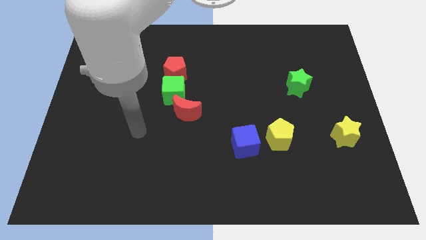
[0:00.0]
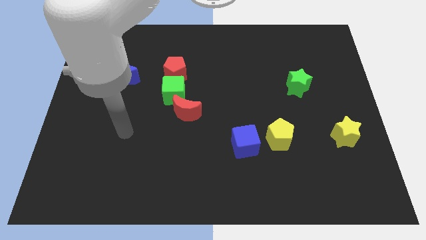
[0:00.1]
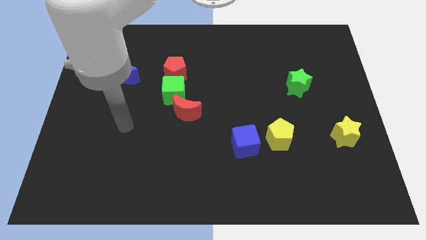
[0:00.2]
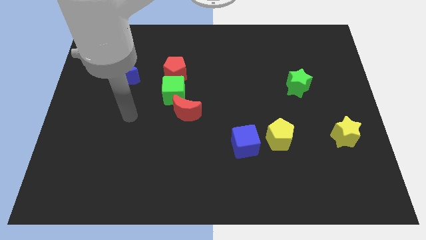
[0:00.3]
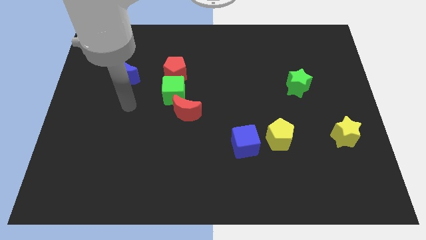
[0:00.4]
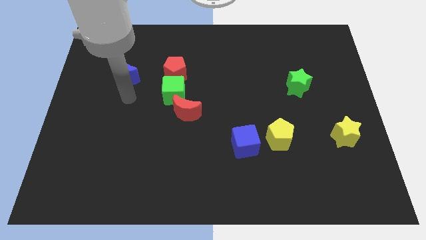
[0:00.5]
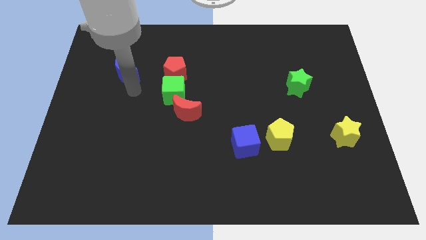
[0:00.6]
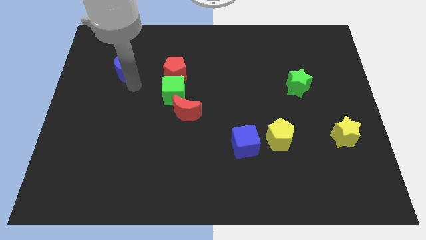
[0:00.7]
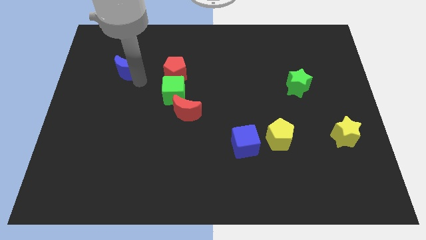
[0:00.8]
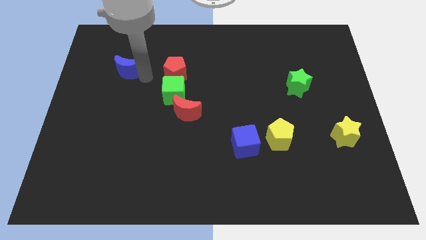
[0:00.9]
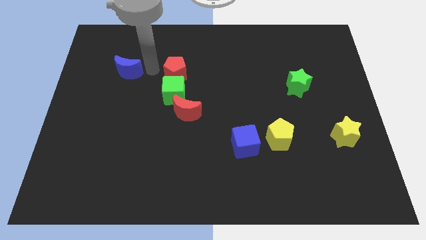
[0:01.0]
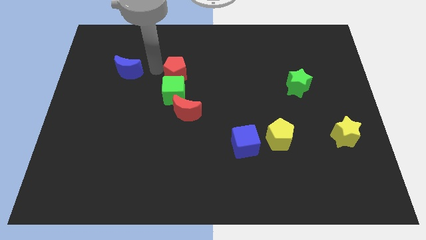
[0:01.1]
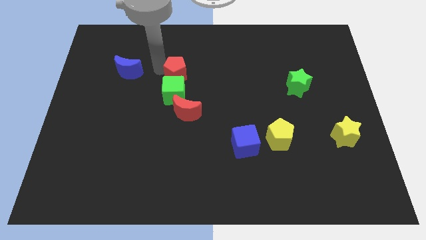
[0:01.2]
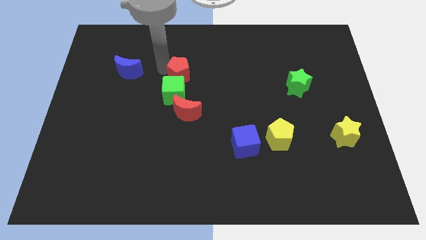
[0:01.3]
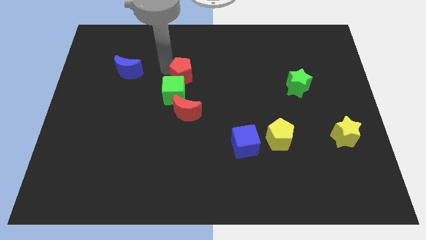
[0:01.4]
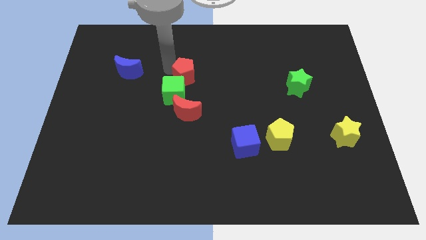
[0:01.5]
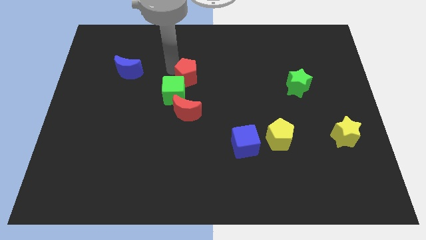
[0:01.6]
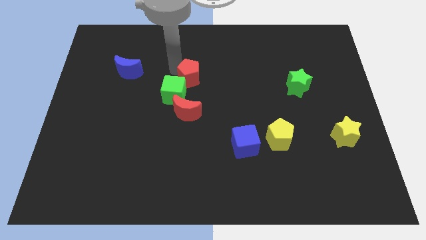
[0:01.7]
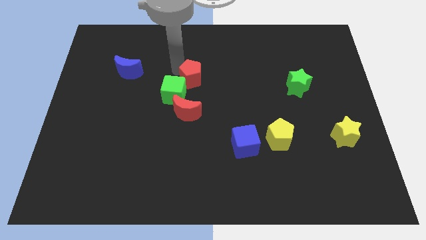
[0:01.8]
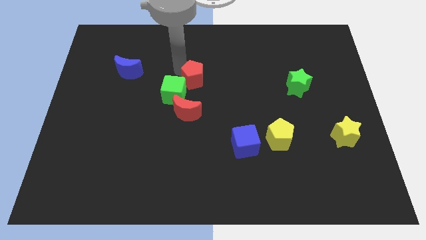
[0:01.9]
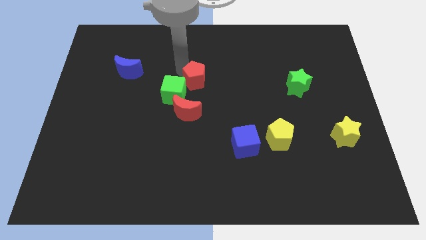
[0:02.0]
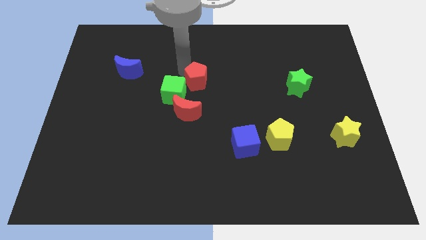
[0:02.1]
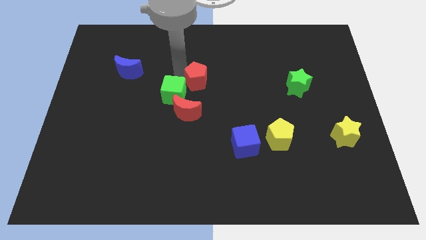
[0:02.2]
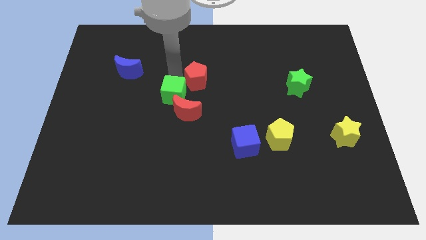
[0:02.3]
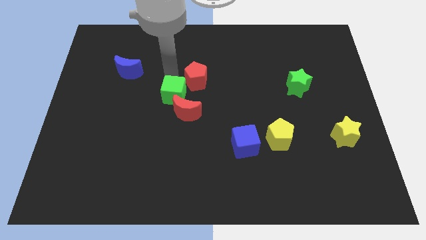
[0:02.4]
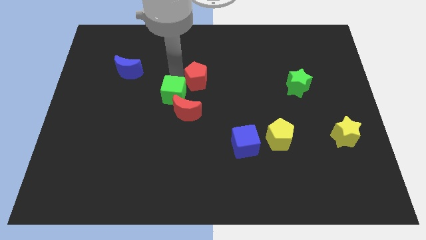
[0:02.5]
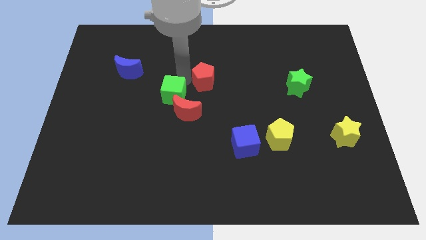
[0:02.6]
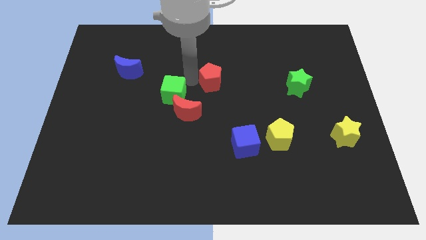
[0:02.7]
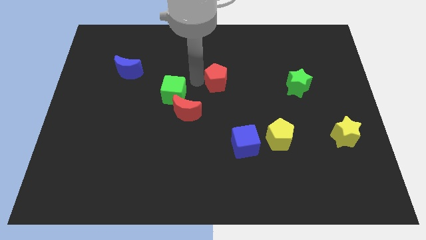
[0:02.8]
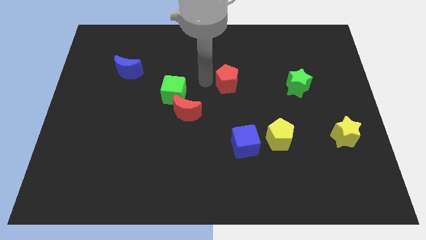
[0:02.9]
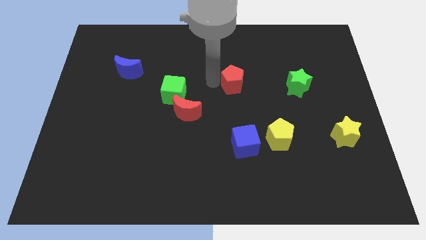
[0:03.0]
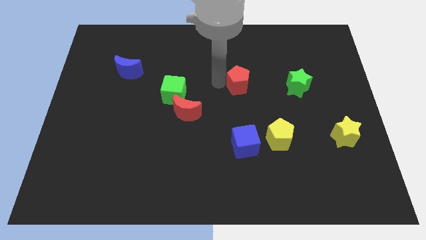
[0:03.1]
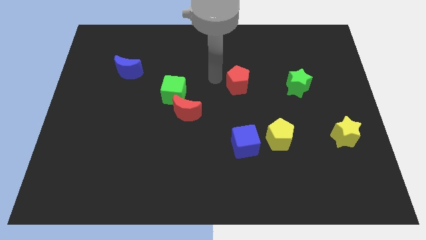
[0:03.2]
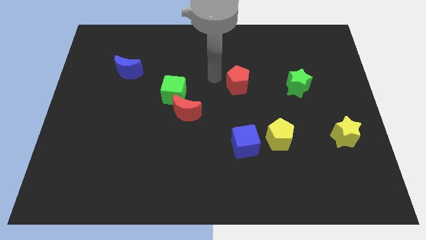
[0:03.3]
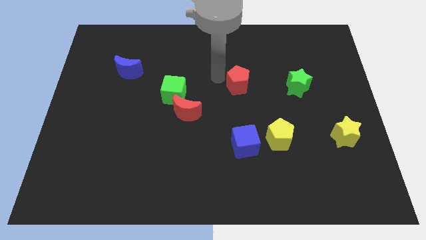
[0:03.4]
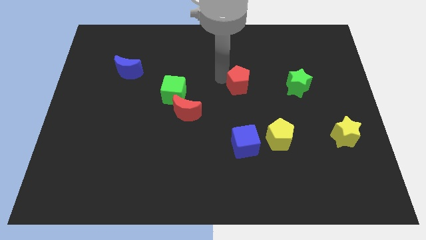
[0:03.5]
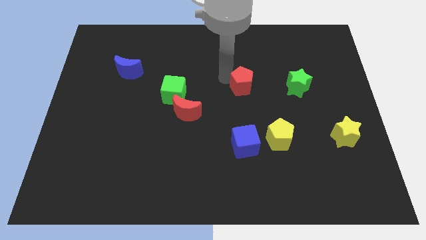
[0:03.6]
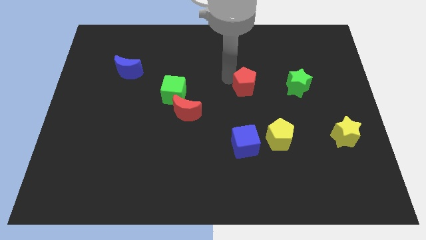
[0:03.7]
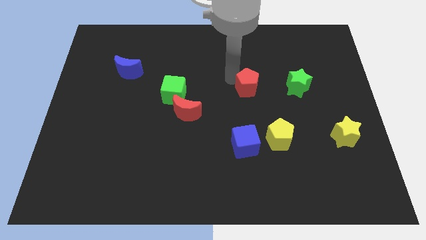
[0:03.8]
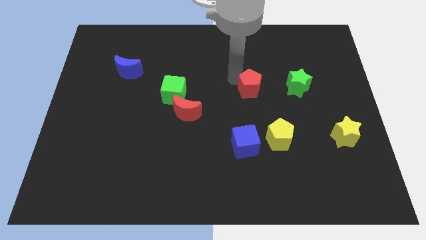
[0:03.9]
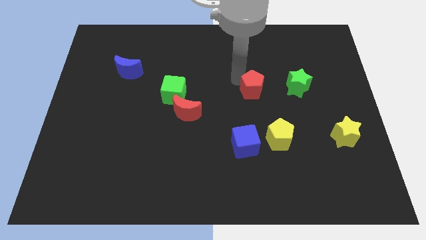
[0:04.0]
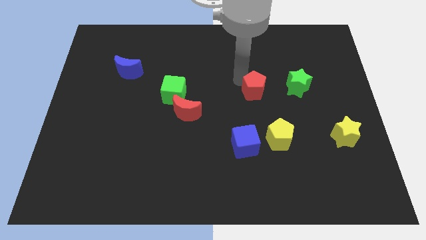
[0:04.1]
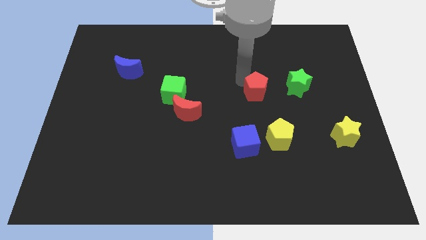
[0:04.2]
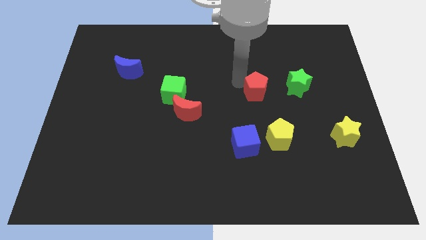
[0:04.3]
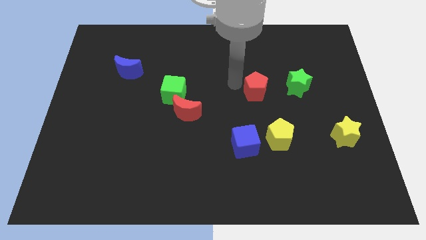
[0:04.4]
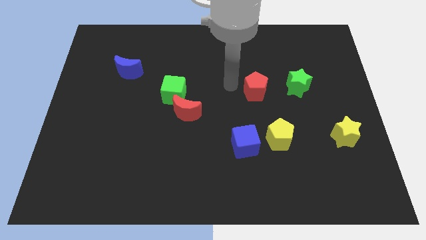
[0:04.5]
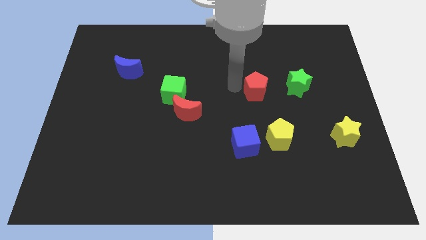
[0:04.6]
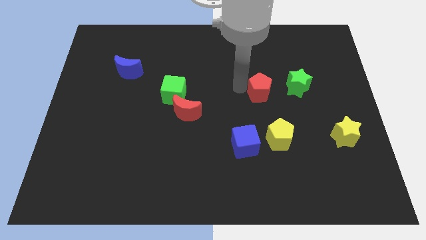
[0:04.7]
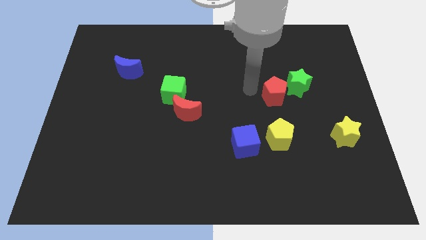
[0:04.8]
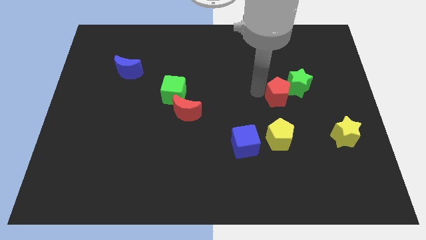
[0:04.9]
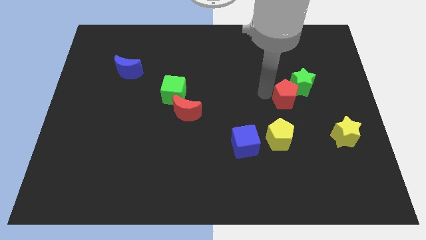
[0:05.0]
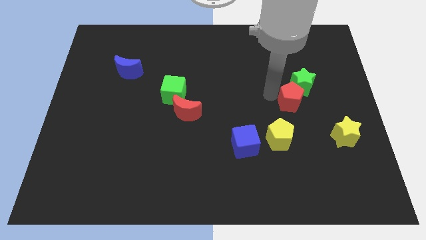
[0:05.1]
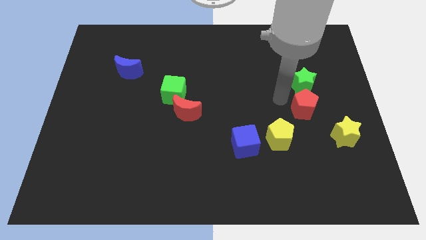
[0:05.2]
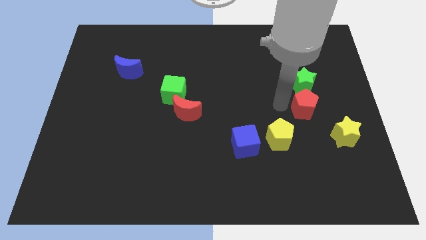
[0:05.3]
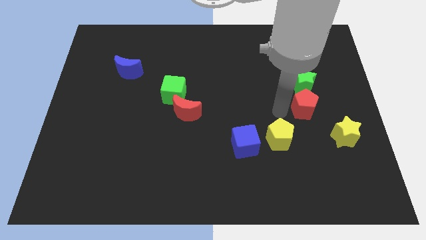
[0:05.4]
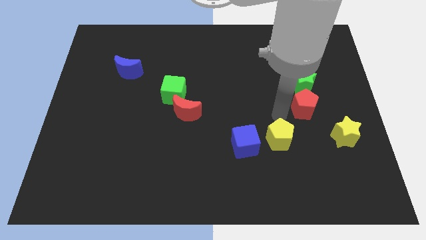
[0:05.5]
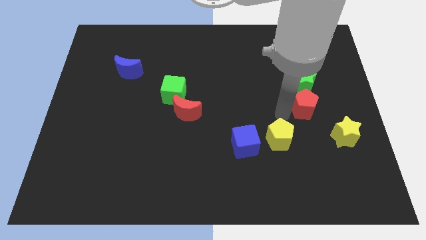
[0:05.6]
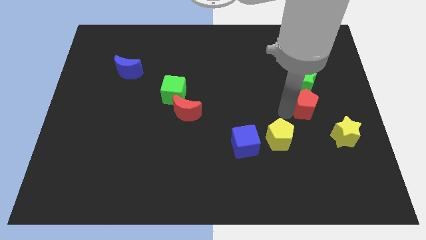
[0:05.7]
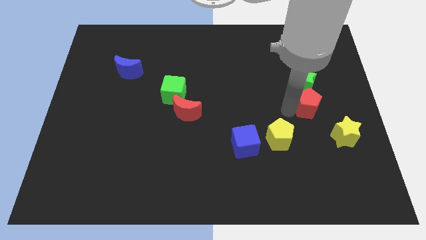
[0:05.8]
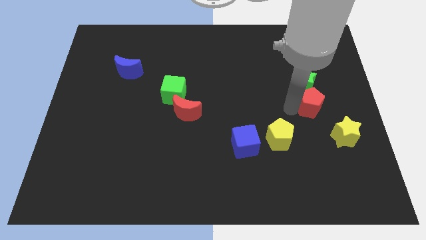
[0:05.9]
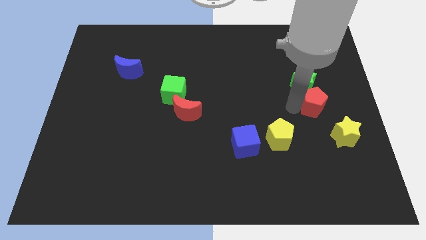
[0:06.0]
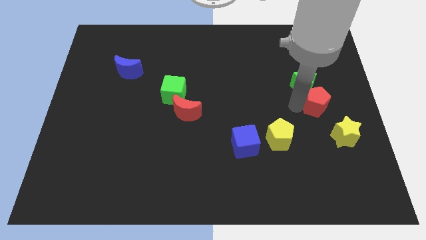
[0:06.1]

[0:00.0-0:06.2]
slide the red pentagon to the top of the yellow star
